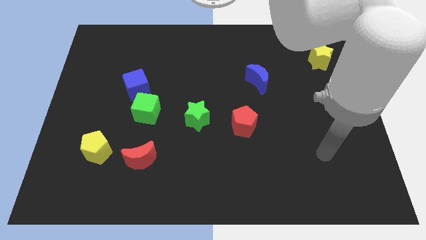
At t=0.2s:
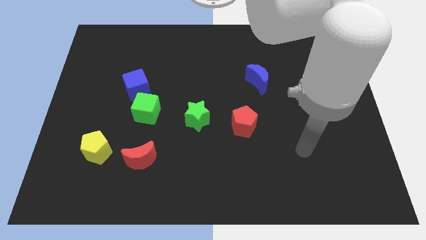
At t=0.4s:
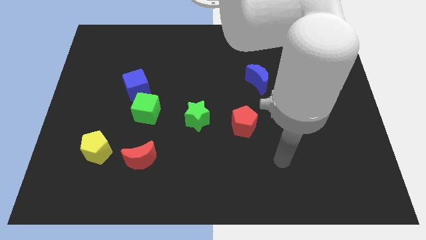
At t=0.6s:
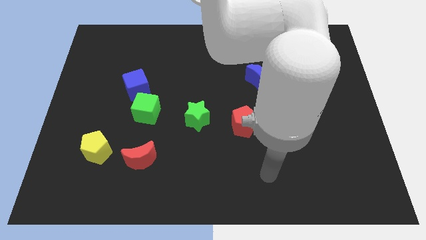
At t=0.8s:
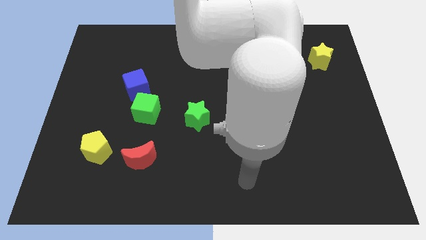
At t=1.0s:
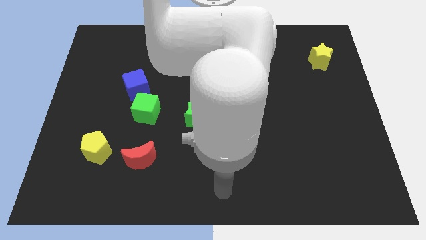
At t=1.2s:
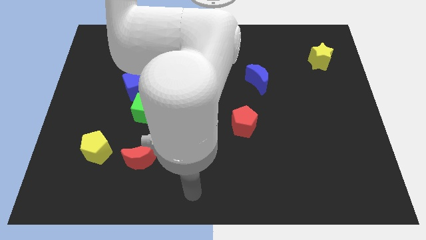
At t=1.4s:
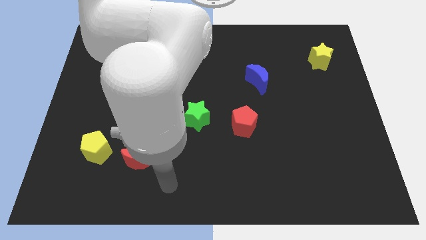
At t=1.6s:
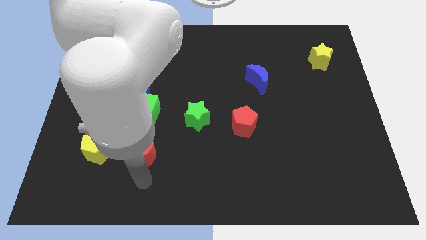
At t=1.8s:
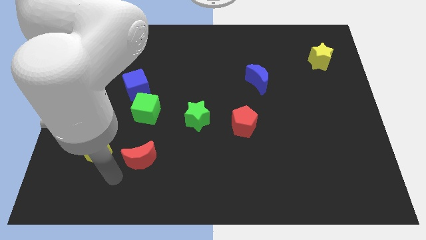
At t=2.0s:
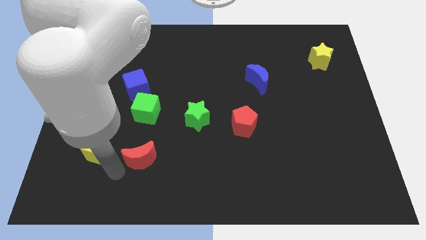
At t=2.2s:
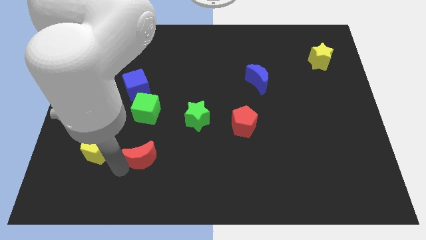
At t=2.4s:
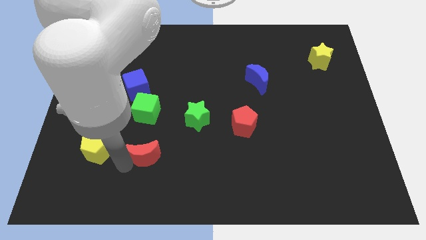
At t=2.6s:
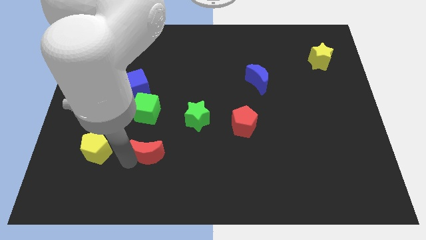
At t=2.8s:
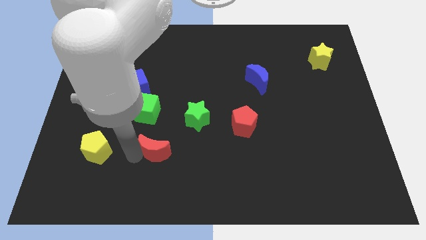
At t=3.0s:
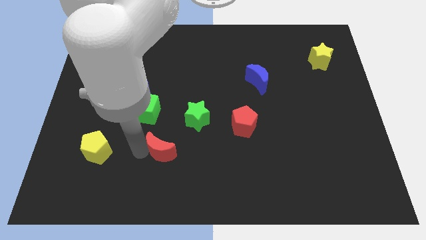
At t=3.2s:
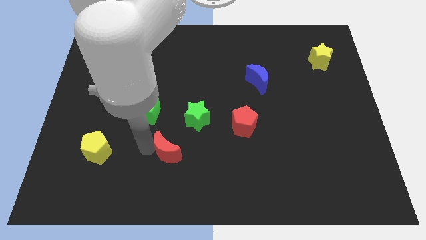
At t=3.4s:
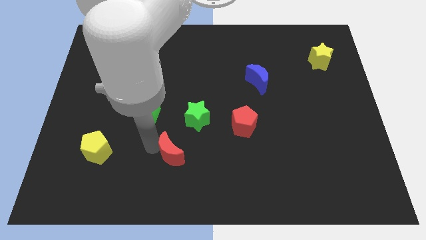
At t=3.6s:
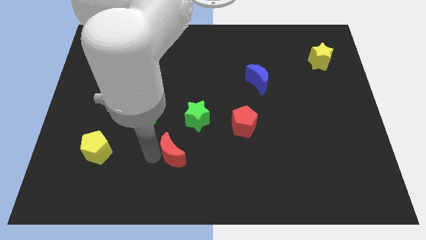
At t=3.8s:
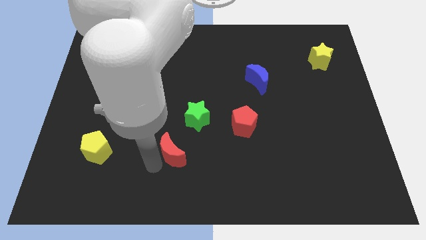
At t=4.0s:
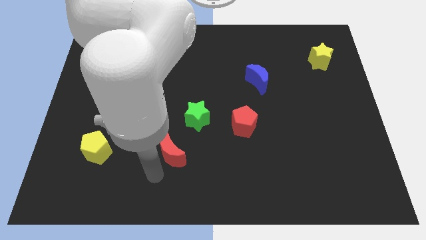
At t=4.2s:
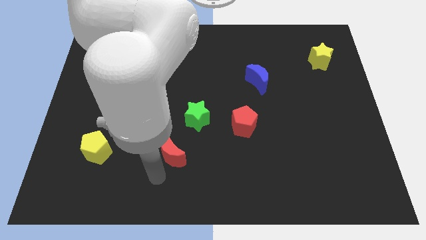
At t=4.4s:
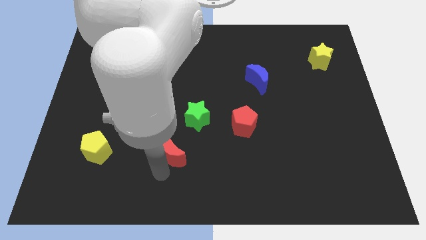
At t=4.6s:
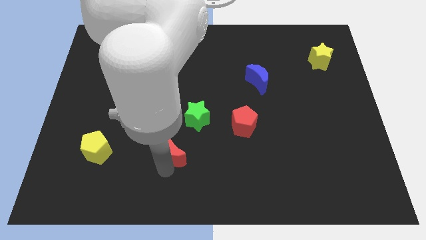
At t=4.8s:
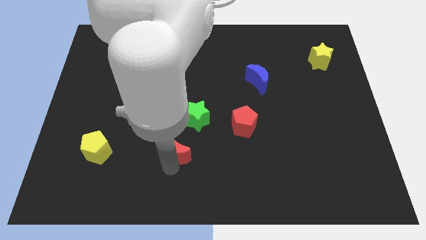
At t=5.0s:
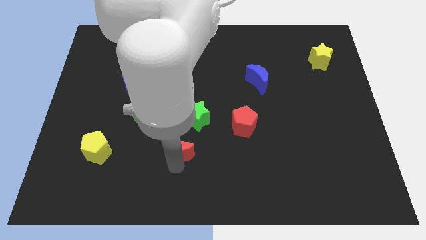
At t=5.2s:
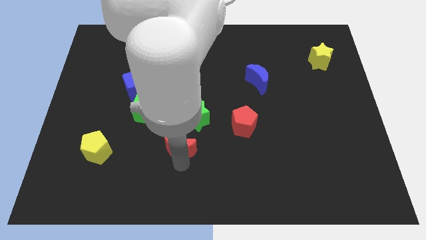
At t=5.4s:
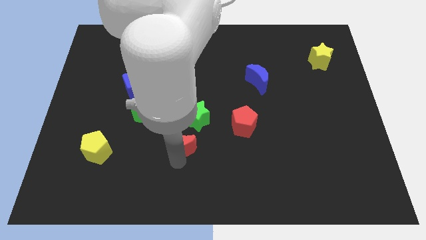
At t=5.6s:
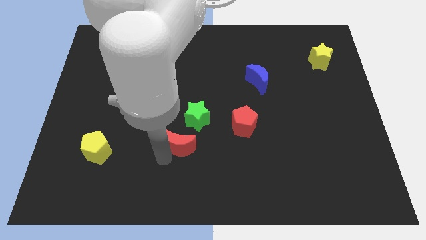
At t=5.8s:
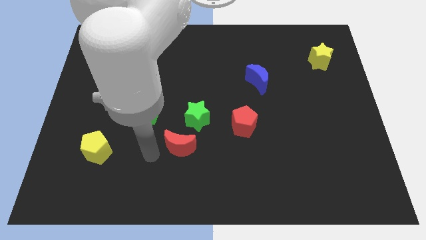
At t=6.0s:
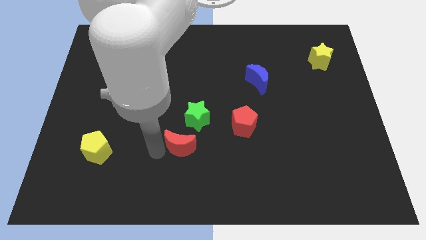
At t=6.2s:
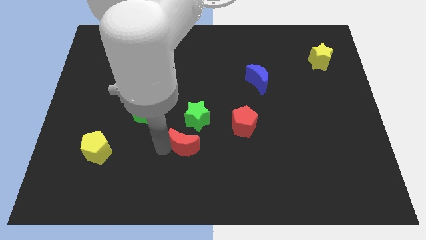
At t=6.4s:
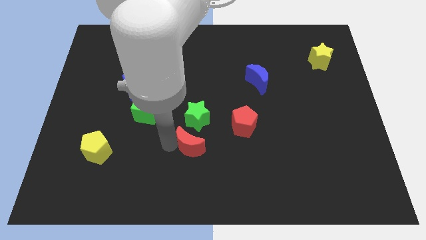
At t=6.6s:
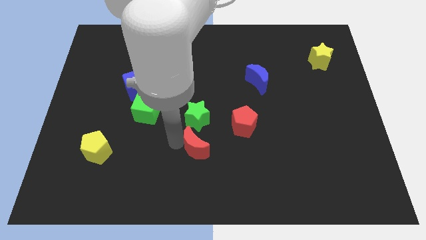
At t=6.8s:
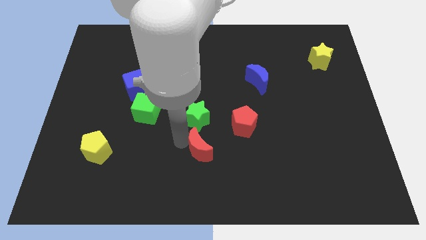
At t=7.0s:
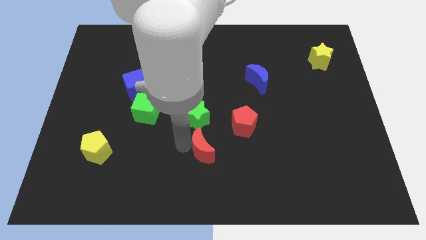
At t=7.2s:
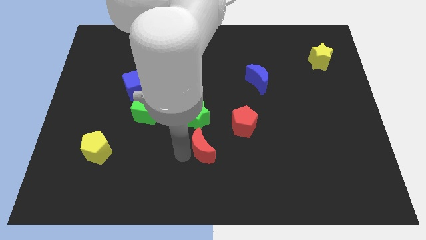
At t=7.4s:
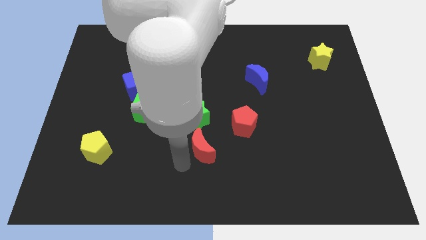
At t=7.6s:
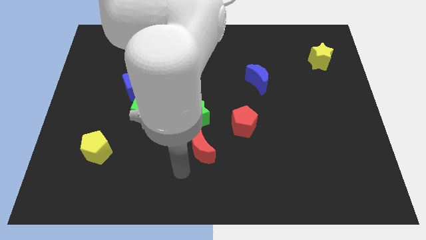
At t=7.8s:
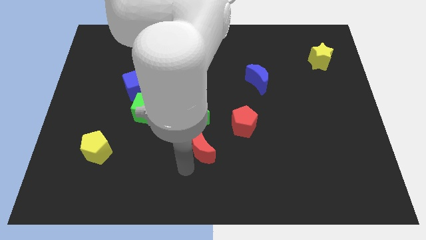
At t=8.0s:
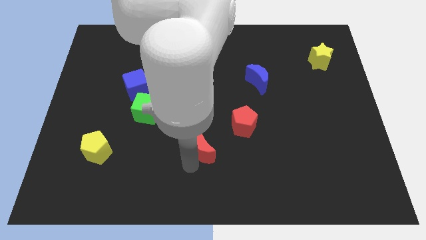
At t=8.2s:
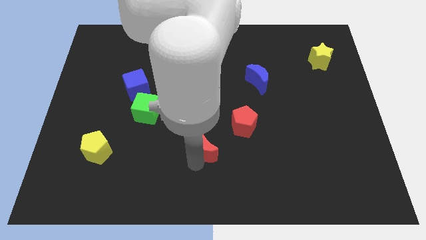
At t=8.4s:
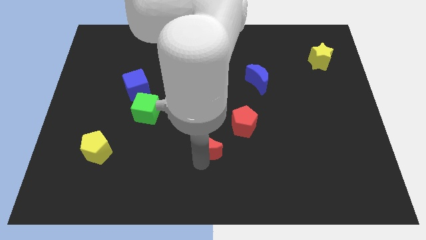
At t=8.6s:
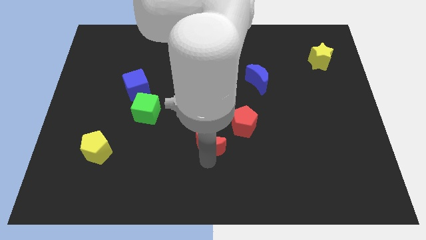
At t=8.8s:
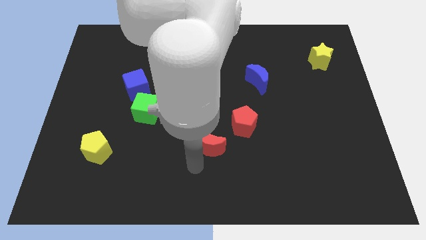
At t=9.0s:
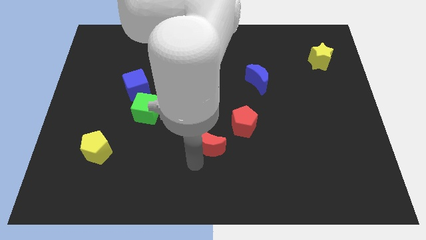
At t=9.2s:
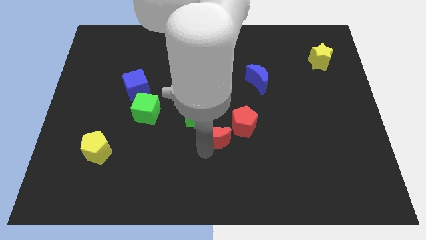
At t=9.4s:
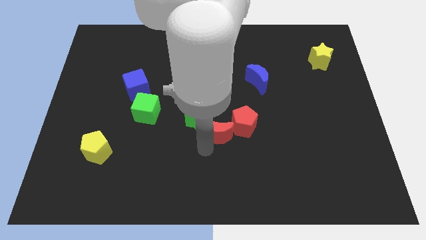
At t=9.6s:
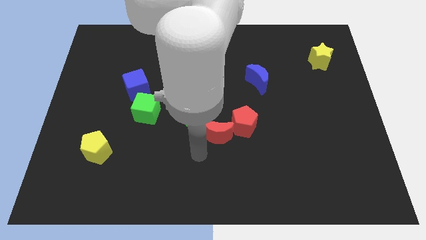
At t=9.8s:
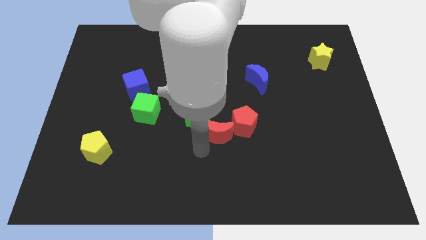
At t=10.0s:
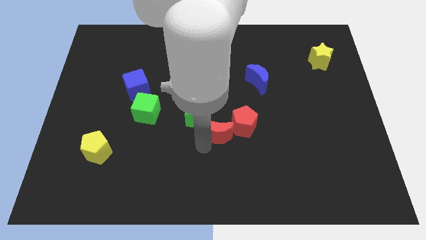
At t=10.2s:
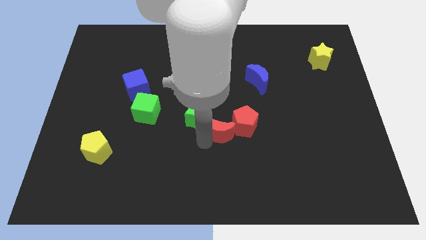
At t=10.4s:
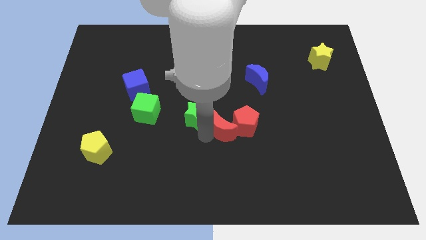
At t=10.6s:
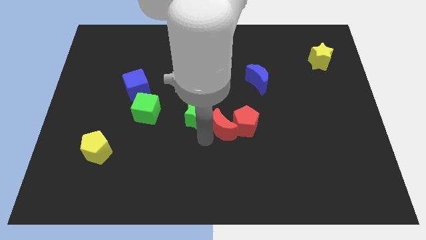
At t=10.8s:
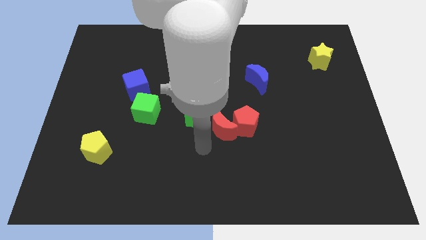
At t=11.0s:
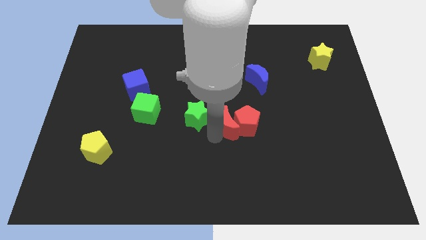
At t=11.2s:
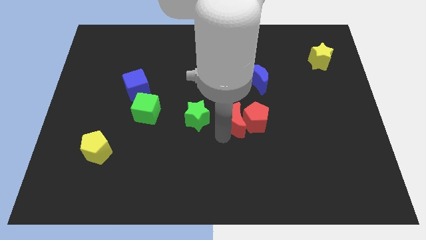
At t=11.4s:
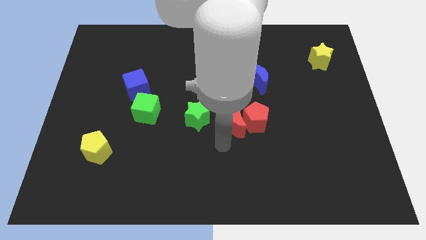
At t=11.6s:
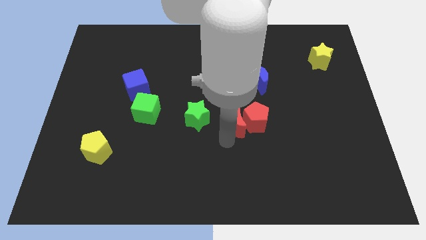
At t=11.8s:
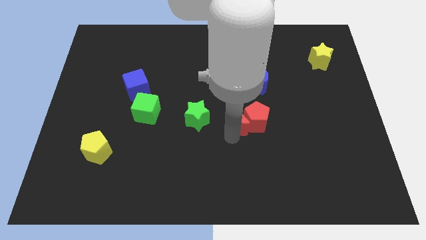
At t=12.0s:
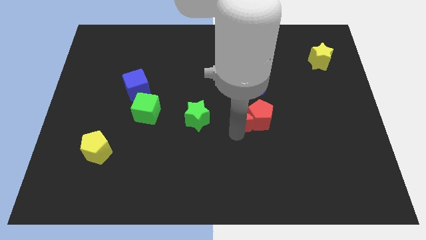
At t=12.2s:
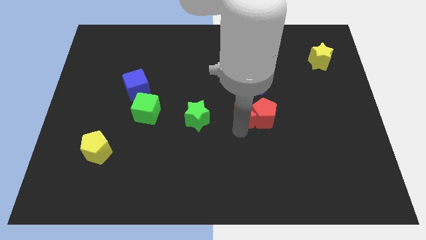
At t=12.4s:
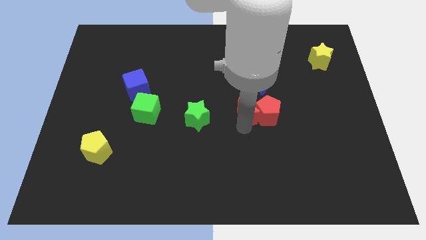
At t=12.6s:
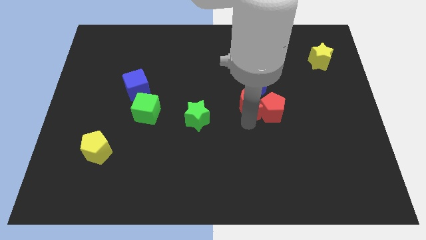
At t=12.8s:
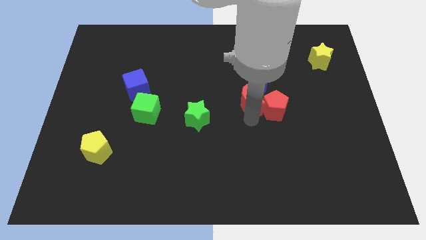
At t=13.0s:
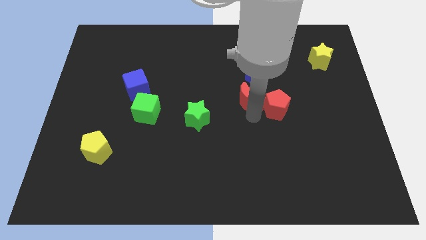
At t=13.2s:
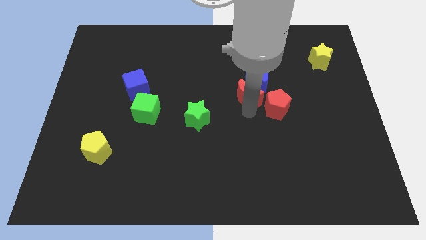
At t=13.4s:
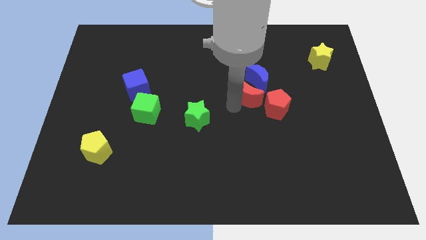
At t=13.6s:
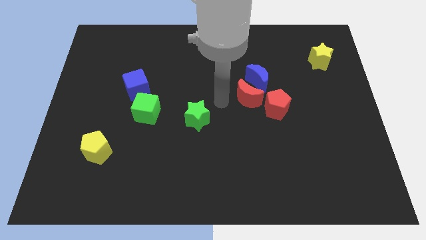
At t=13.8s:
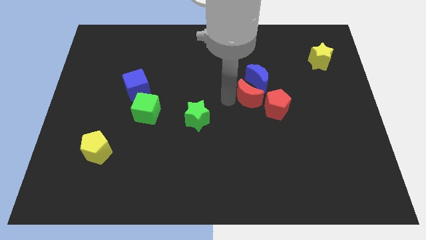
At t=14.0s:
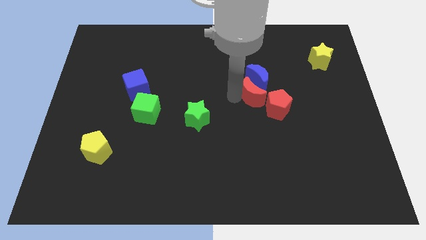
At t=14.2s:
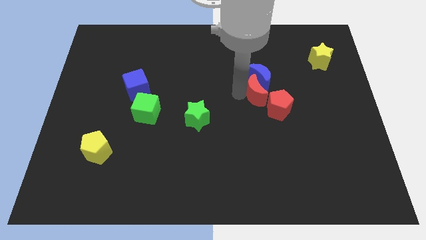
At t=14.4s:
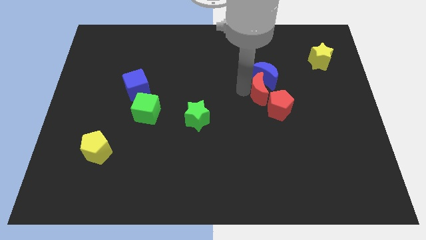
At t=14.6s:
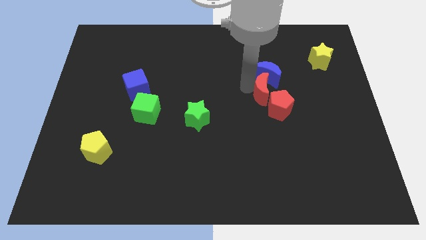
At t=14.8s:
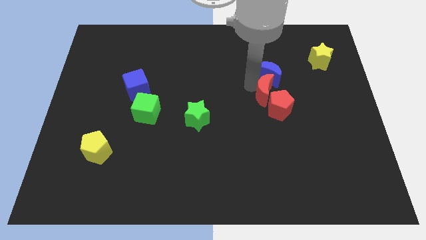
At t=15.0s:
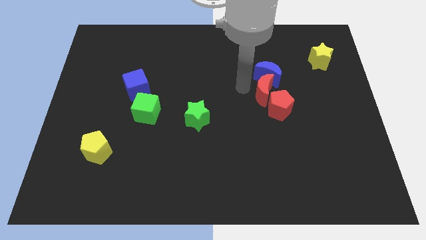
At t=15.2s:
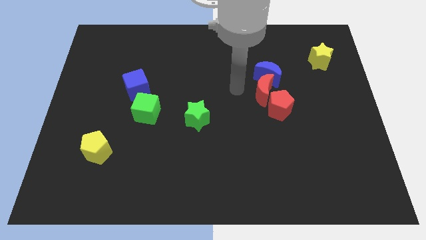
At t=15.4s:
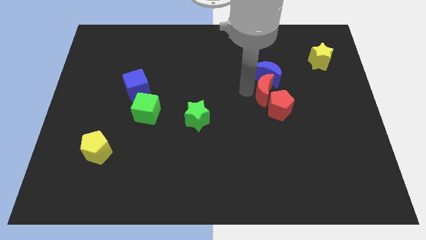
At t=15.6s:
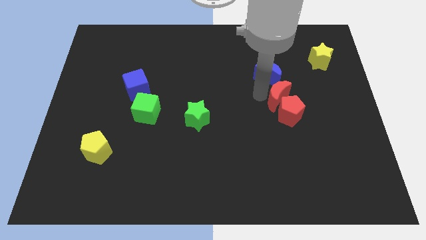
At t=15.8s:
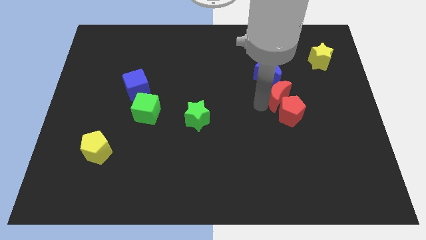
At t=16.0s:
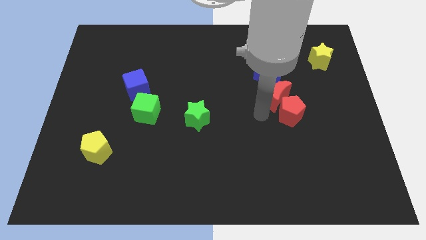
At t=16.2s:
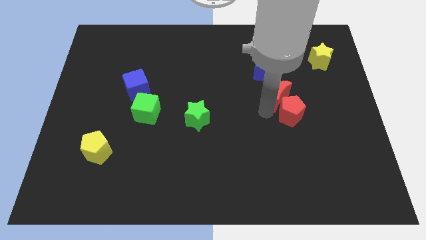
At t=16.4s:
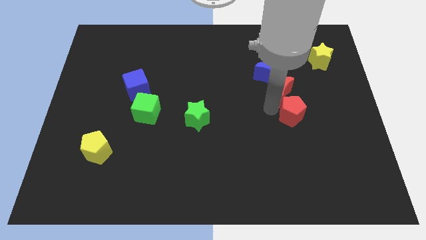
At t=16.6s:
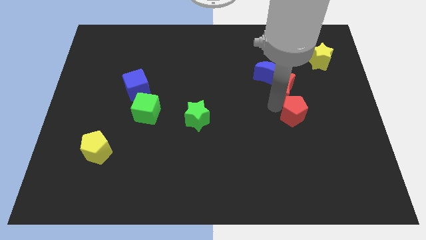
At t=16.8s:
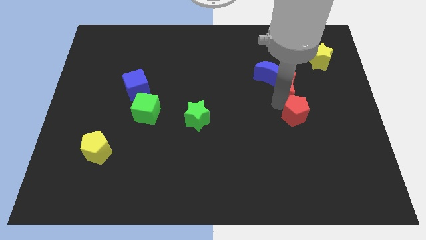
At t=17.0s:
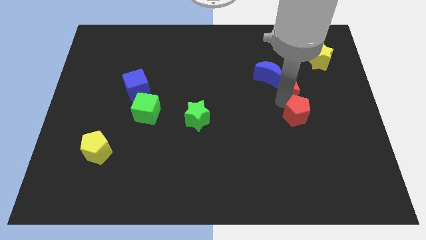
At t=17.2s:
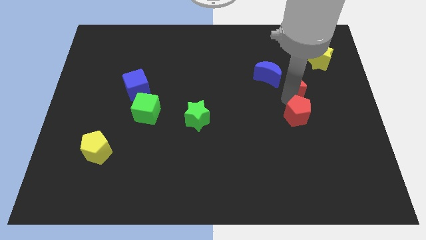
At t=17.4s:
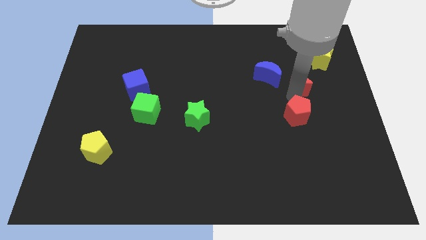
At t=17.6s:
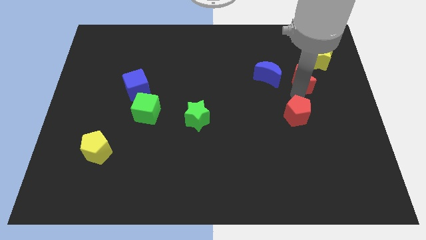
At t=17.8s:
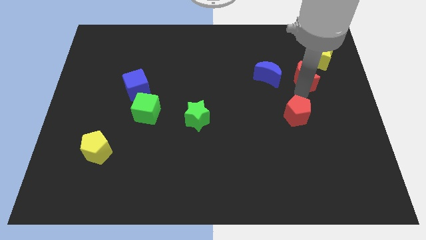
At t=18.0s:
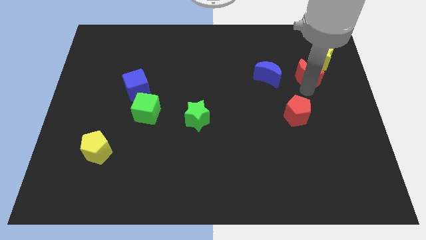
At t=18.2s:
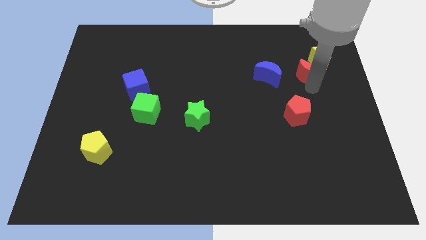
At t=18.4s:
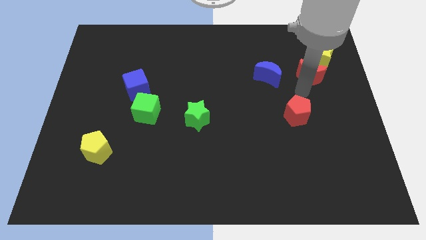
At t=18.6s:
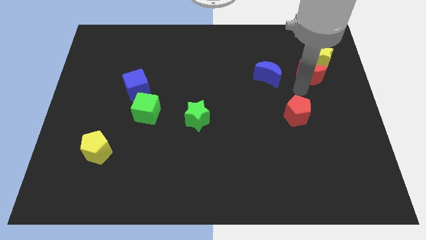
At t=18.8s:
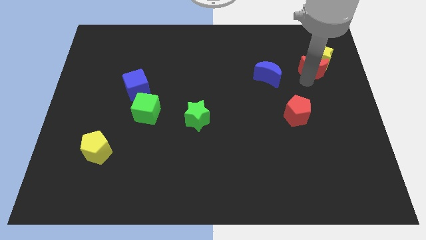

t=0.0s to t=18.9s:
push the red moon next to the yellow star
